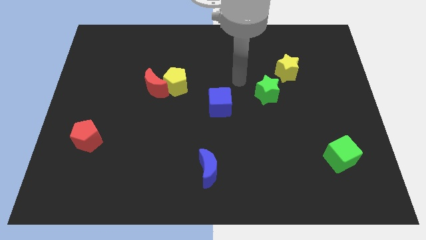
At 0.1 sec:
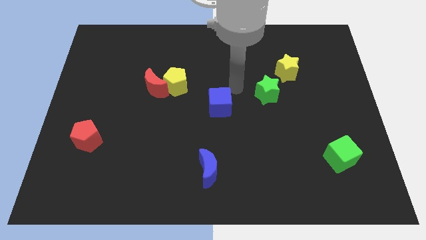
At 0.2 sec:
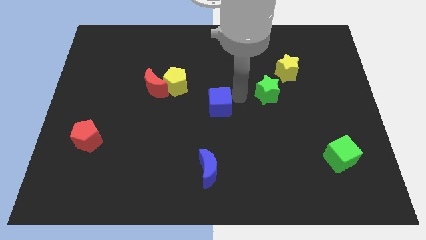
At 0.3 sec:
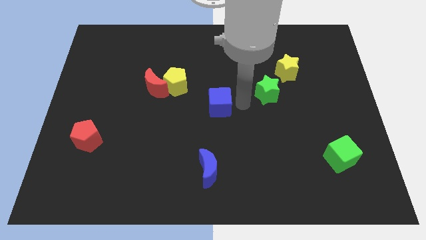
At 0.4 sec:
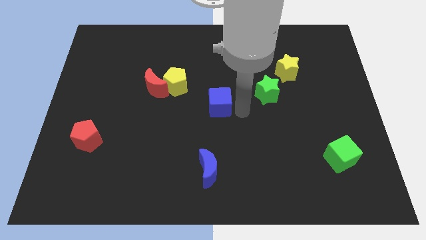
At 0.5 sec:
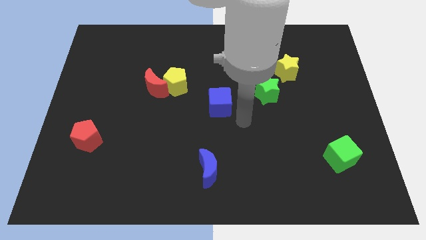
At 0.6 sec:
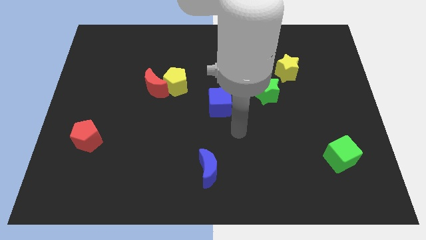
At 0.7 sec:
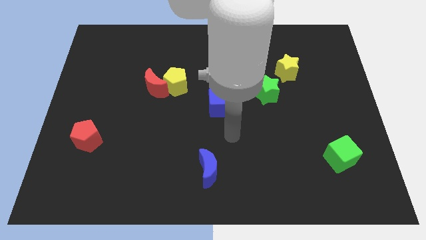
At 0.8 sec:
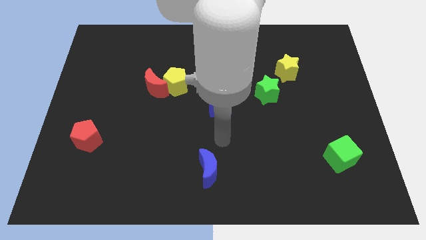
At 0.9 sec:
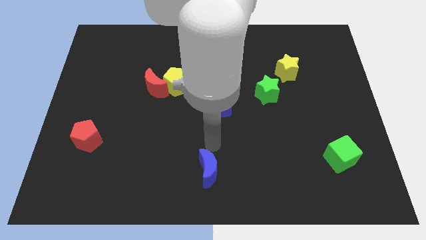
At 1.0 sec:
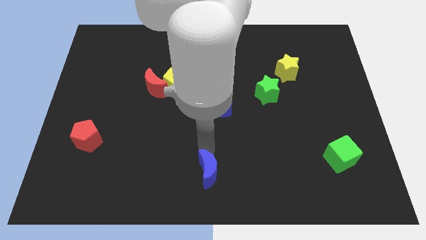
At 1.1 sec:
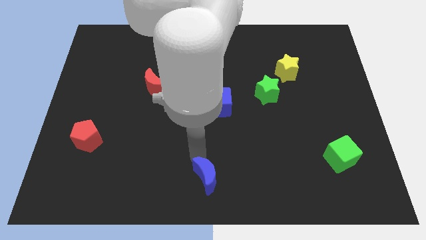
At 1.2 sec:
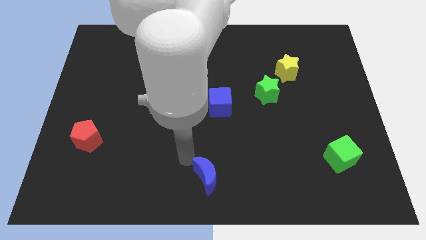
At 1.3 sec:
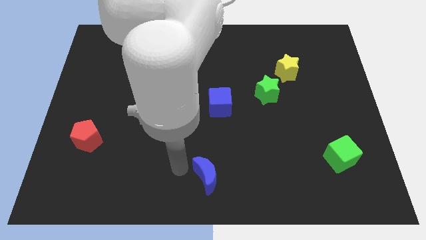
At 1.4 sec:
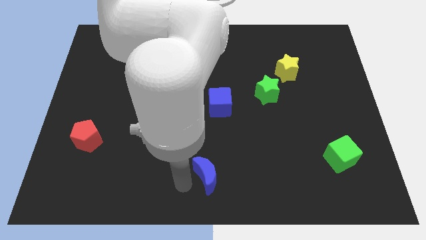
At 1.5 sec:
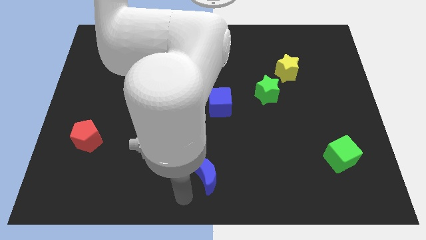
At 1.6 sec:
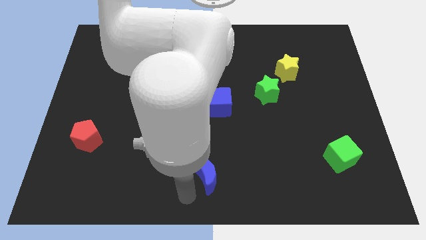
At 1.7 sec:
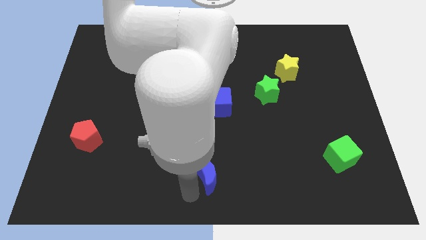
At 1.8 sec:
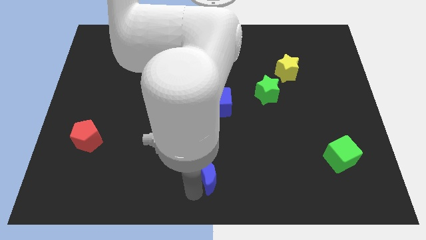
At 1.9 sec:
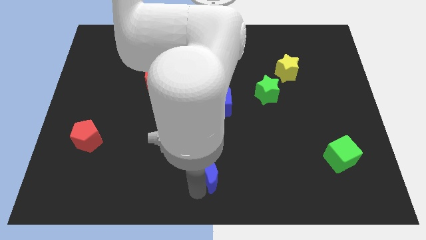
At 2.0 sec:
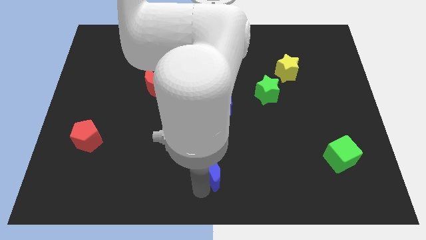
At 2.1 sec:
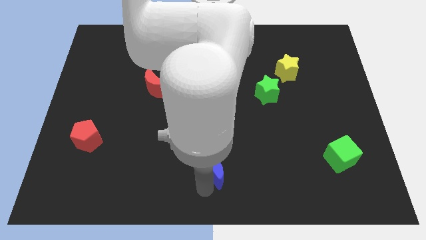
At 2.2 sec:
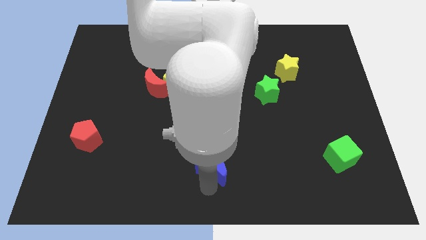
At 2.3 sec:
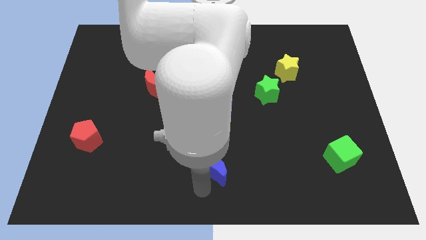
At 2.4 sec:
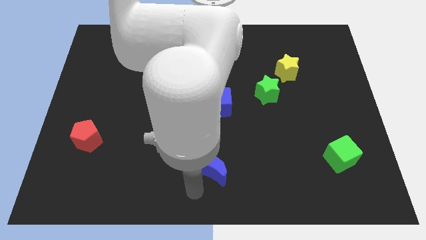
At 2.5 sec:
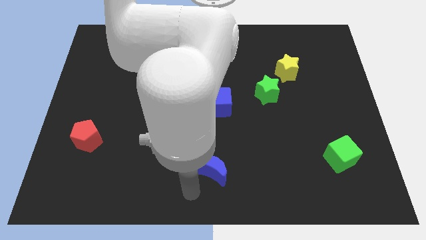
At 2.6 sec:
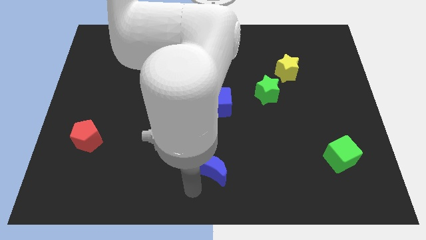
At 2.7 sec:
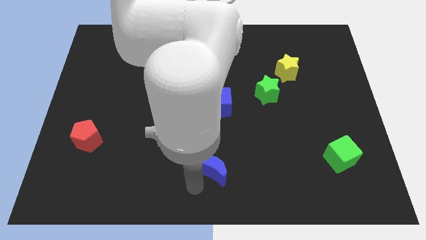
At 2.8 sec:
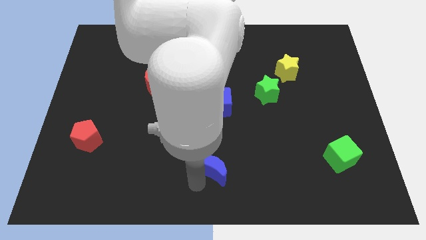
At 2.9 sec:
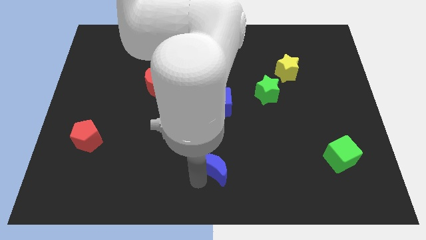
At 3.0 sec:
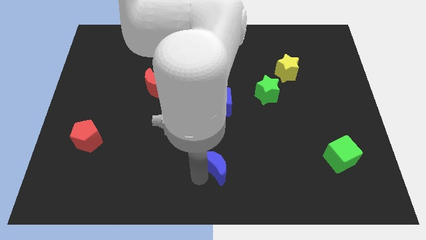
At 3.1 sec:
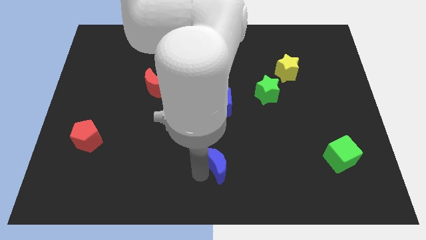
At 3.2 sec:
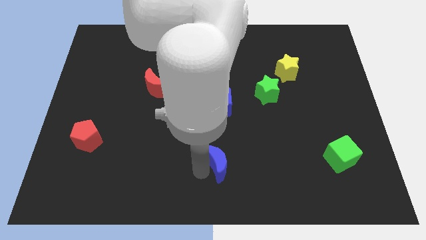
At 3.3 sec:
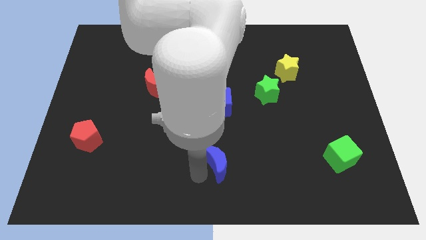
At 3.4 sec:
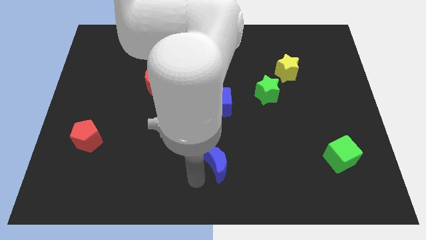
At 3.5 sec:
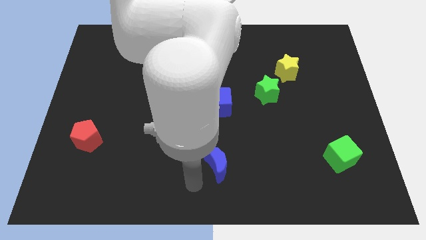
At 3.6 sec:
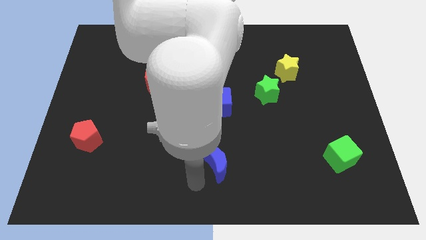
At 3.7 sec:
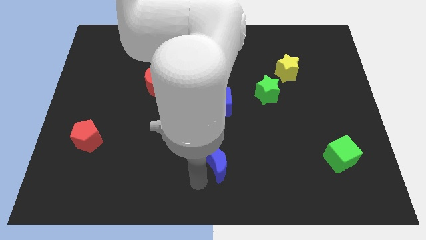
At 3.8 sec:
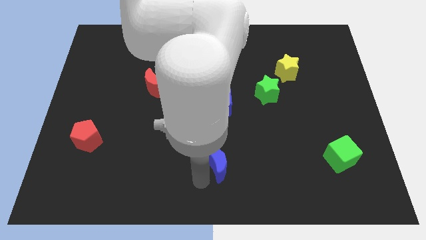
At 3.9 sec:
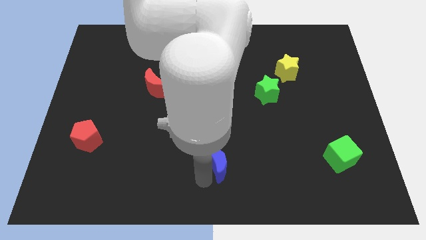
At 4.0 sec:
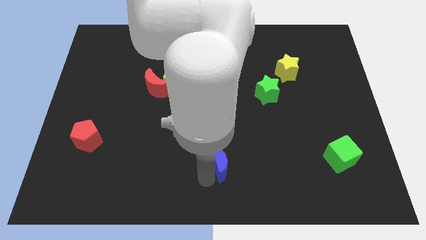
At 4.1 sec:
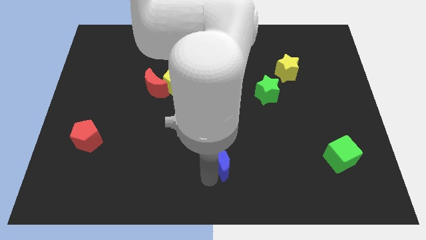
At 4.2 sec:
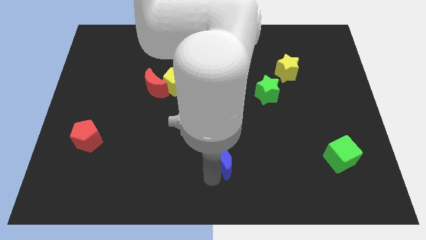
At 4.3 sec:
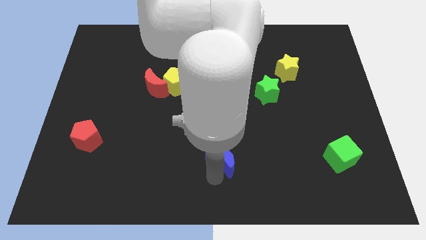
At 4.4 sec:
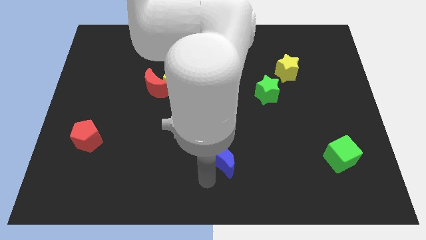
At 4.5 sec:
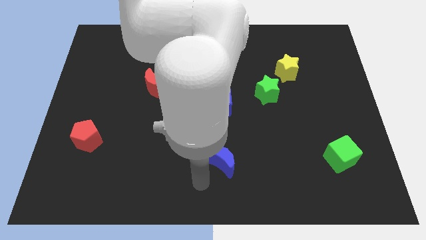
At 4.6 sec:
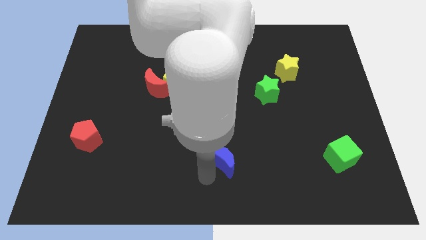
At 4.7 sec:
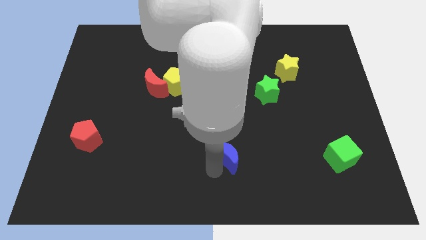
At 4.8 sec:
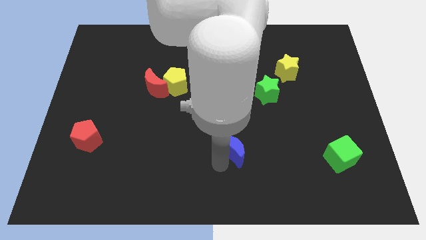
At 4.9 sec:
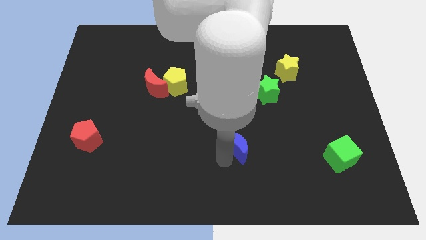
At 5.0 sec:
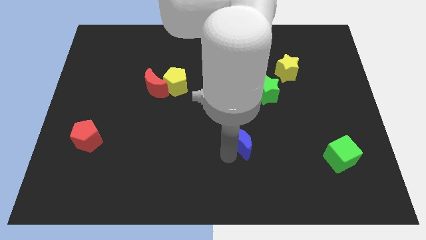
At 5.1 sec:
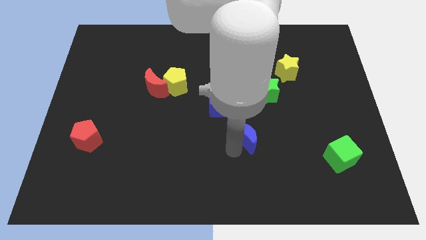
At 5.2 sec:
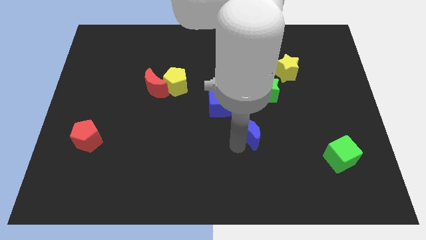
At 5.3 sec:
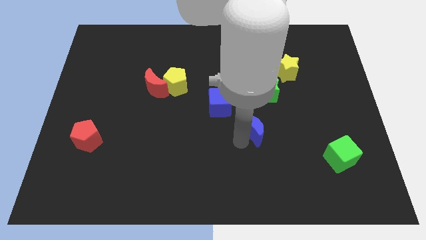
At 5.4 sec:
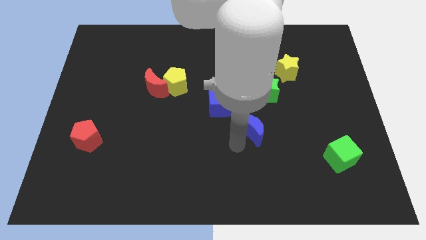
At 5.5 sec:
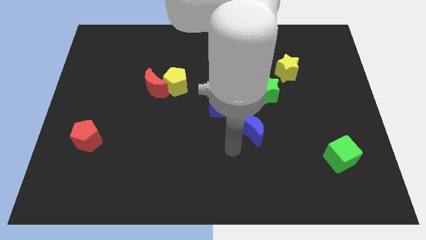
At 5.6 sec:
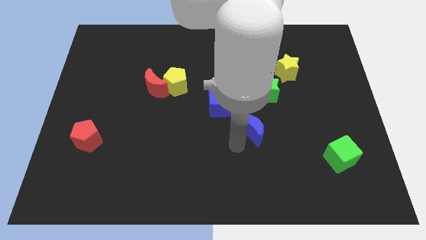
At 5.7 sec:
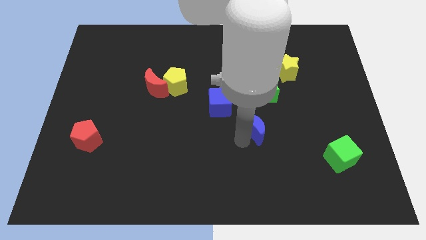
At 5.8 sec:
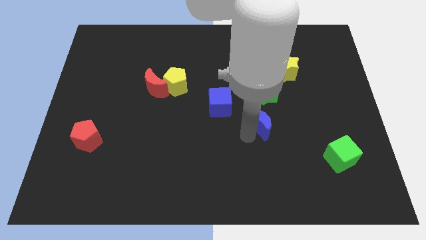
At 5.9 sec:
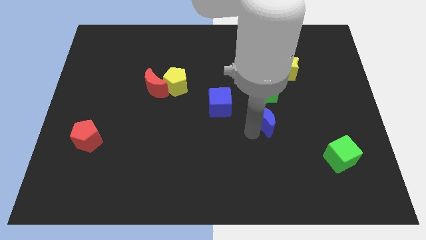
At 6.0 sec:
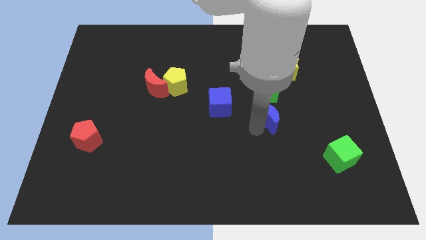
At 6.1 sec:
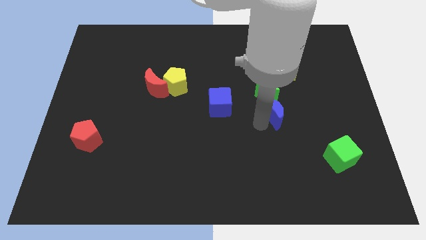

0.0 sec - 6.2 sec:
put the blue moon diagonally down and to the right of the green star

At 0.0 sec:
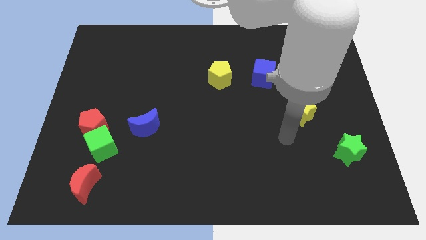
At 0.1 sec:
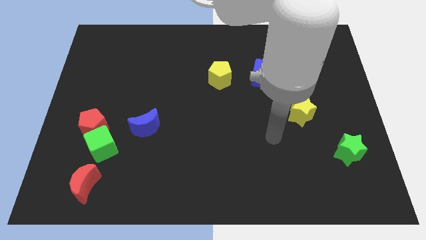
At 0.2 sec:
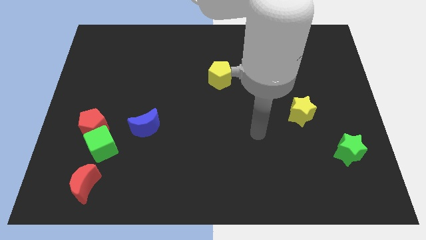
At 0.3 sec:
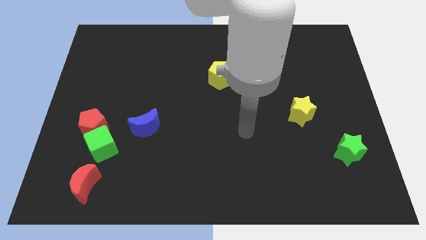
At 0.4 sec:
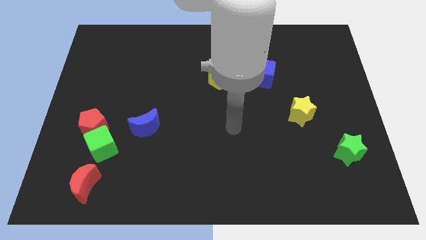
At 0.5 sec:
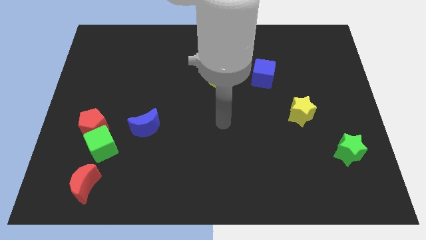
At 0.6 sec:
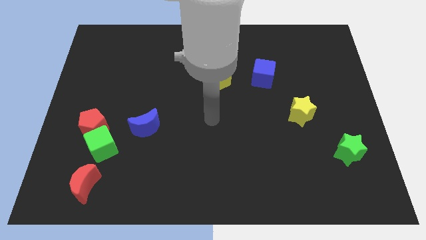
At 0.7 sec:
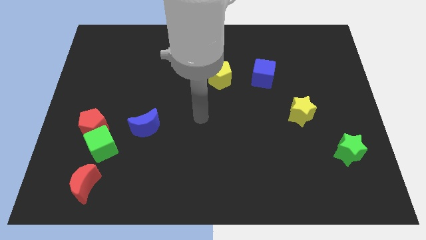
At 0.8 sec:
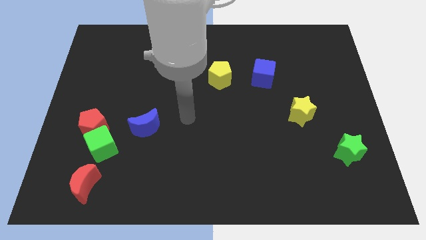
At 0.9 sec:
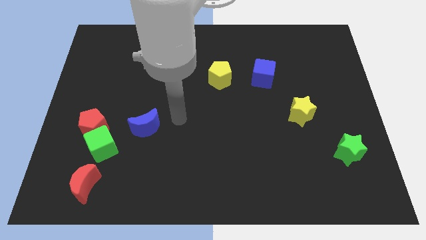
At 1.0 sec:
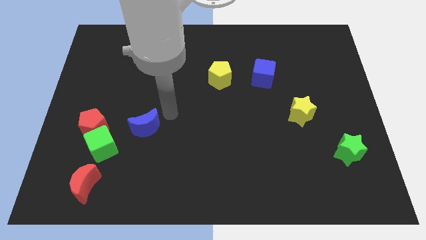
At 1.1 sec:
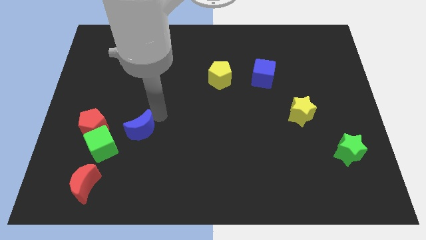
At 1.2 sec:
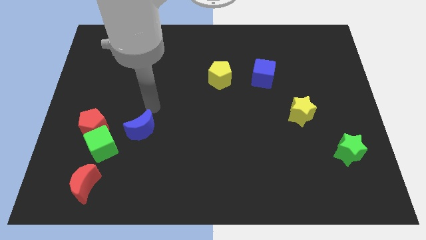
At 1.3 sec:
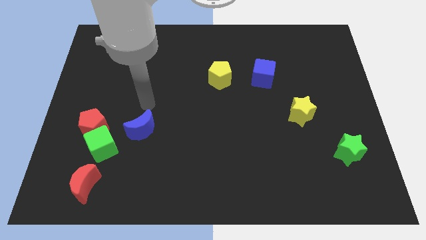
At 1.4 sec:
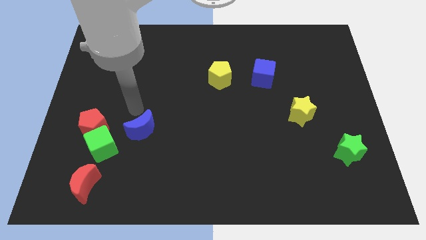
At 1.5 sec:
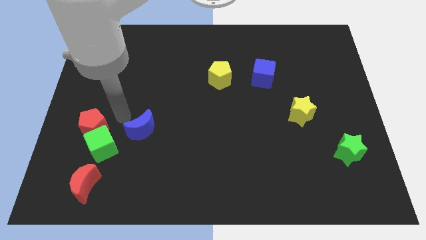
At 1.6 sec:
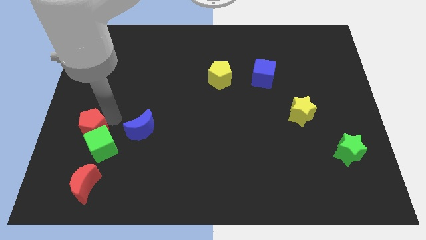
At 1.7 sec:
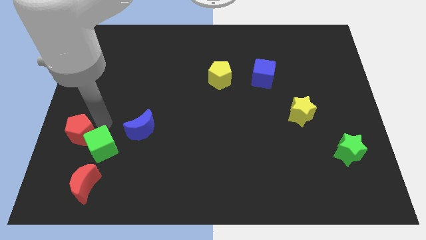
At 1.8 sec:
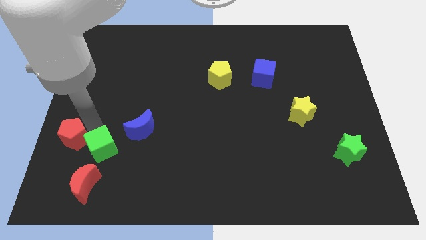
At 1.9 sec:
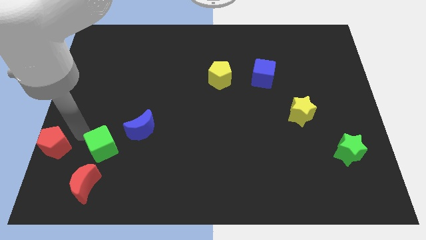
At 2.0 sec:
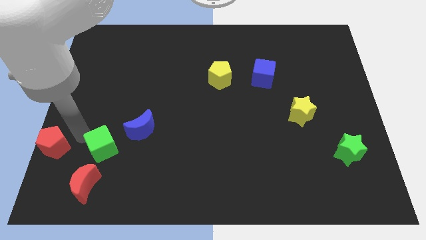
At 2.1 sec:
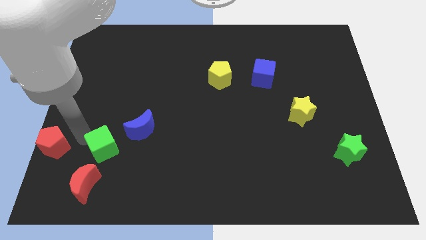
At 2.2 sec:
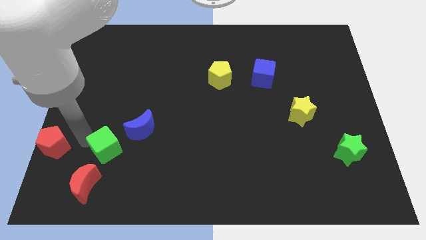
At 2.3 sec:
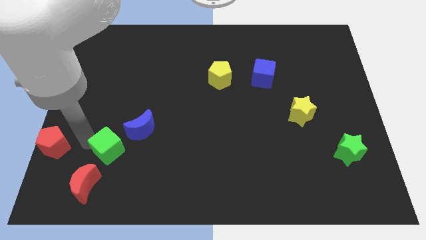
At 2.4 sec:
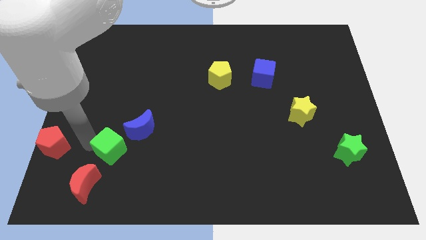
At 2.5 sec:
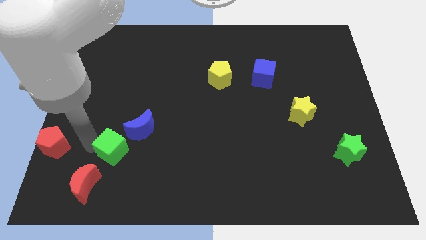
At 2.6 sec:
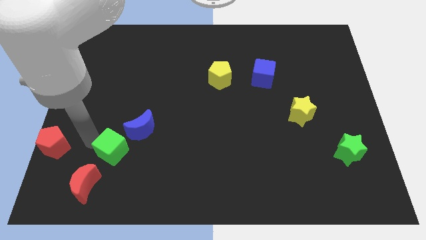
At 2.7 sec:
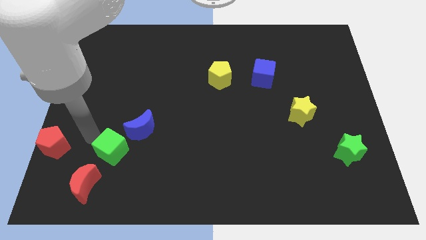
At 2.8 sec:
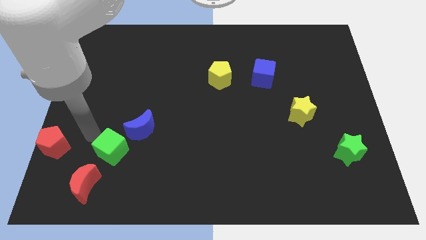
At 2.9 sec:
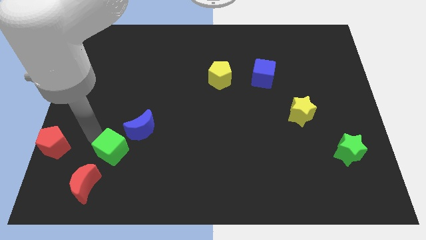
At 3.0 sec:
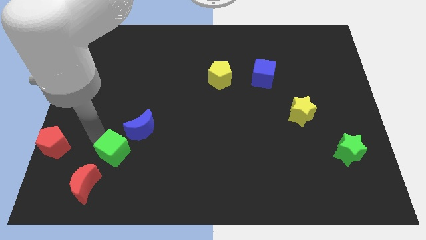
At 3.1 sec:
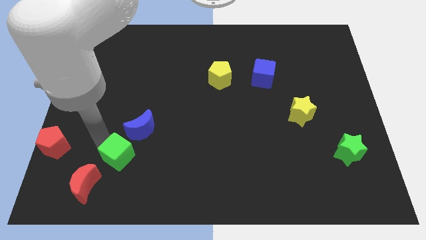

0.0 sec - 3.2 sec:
move the green cube to the bottom of the blue moon
